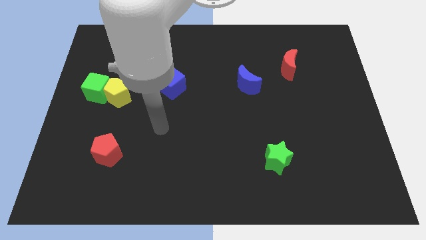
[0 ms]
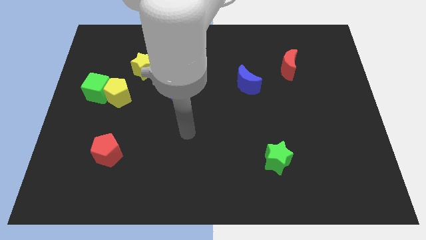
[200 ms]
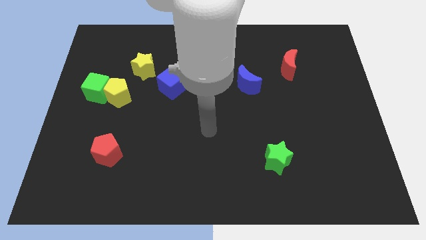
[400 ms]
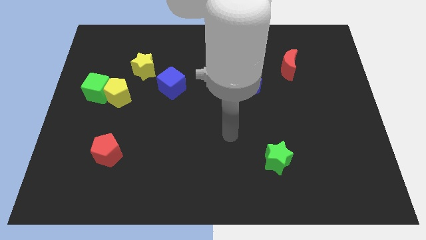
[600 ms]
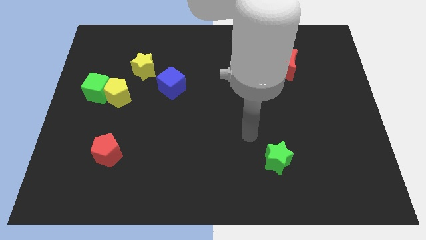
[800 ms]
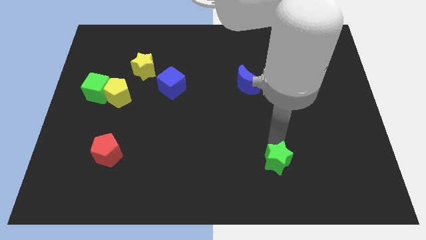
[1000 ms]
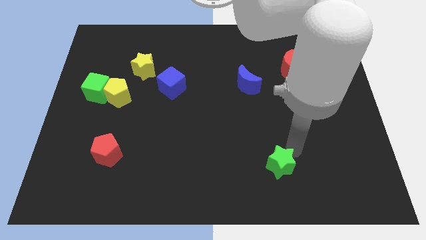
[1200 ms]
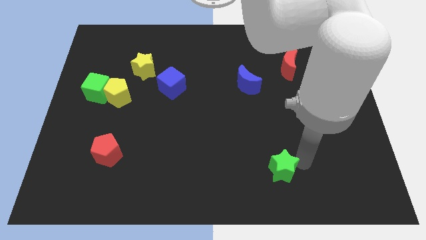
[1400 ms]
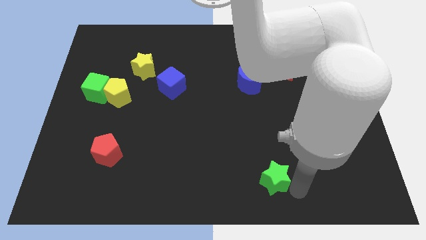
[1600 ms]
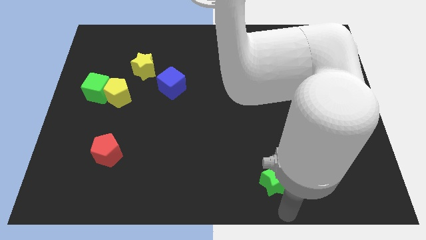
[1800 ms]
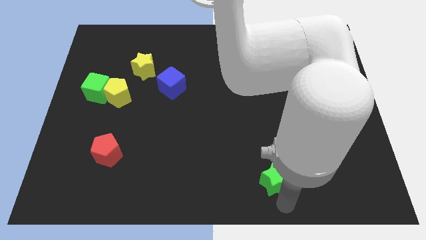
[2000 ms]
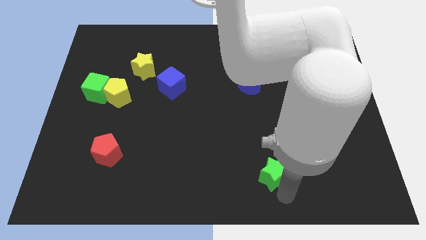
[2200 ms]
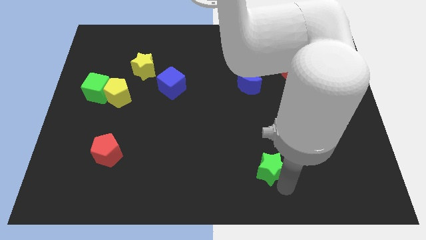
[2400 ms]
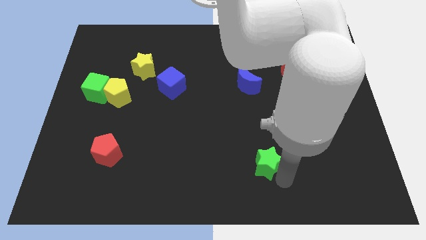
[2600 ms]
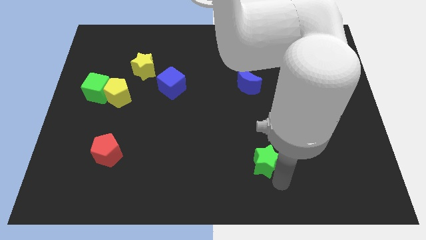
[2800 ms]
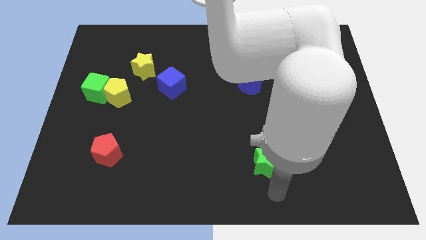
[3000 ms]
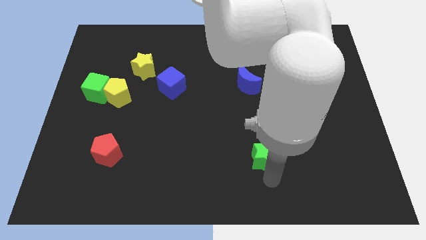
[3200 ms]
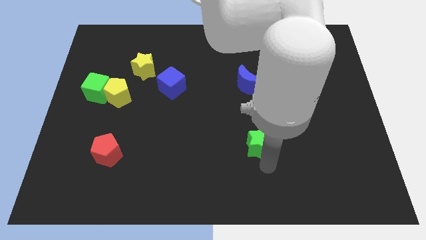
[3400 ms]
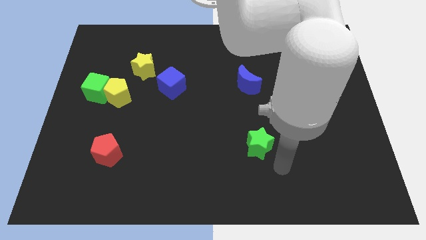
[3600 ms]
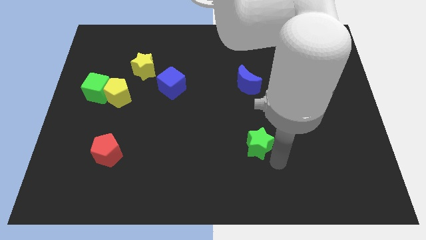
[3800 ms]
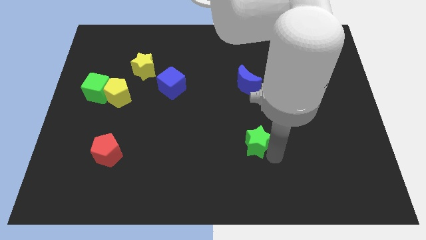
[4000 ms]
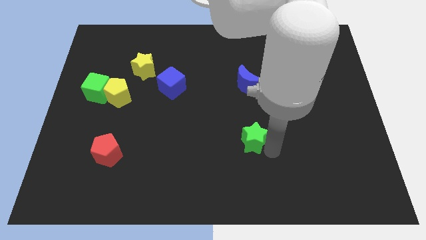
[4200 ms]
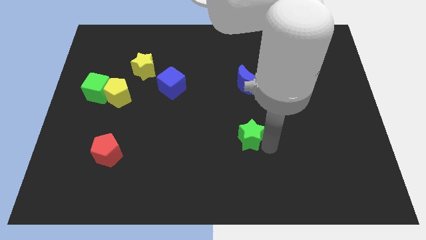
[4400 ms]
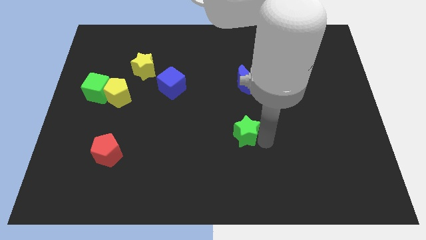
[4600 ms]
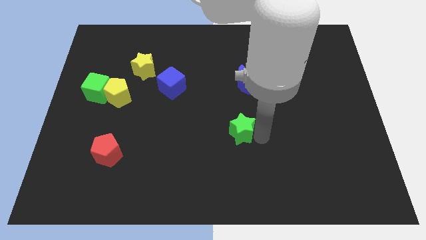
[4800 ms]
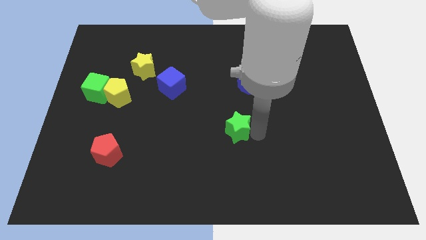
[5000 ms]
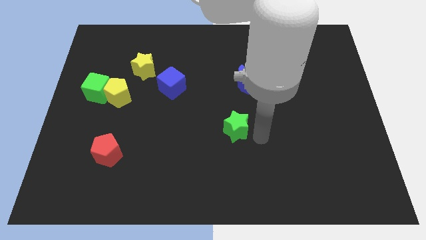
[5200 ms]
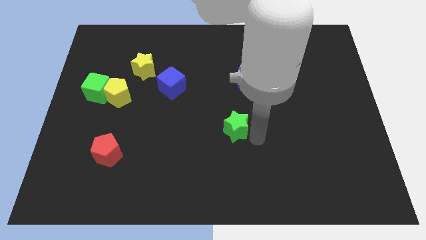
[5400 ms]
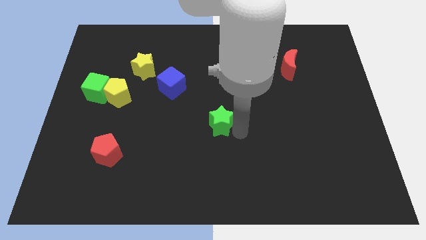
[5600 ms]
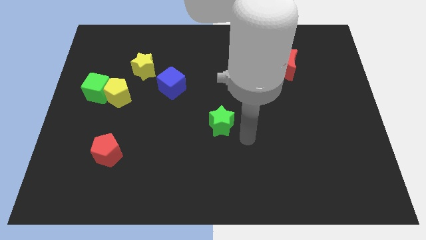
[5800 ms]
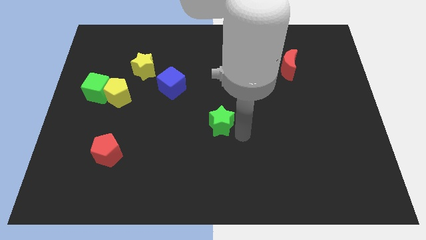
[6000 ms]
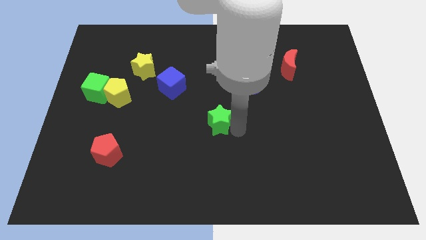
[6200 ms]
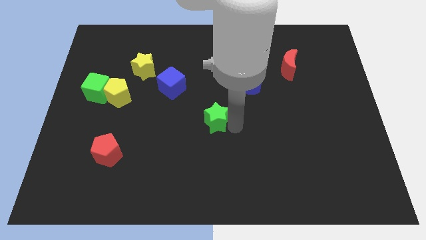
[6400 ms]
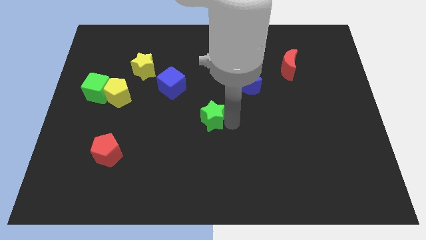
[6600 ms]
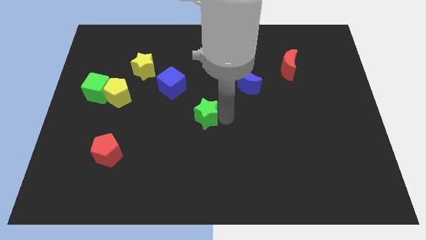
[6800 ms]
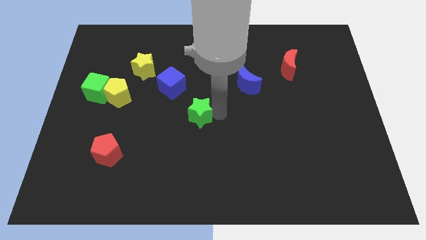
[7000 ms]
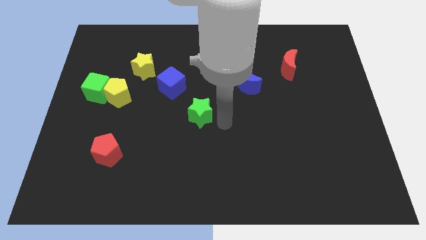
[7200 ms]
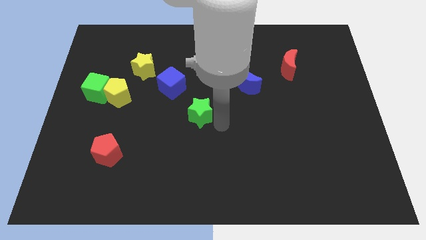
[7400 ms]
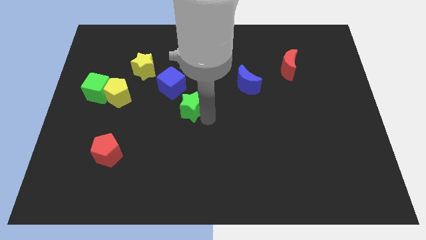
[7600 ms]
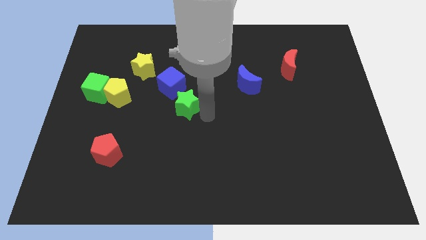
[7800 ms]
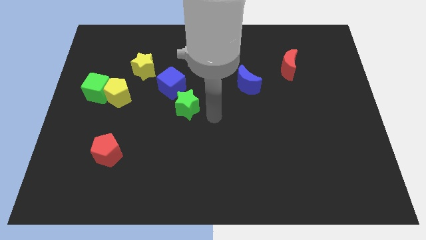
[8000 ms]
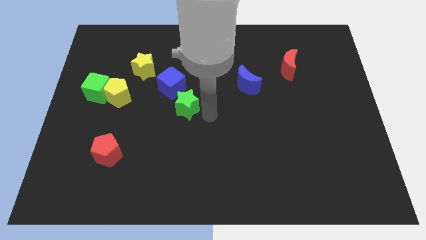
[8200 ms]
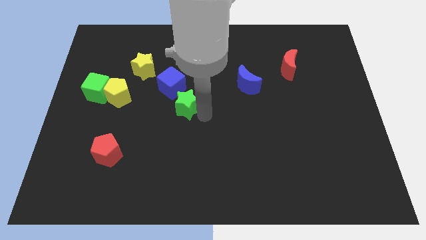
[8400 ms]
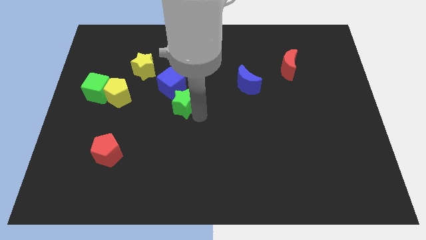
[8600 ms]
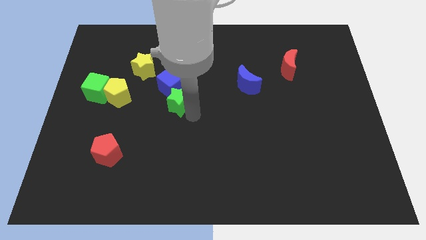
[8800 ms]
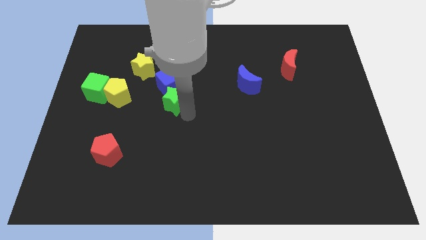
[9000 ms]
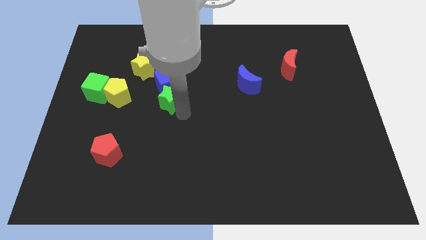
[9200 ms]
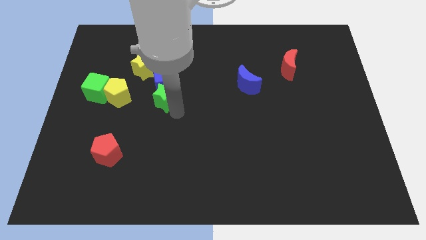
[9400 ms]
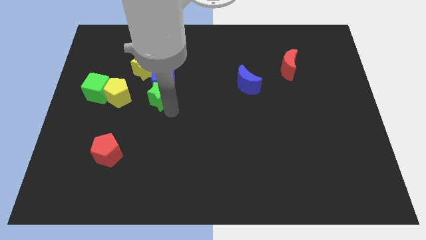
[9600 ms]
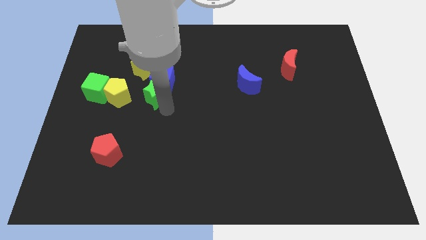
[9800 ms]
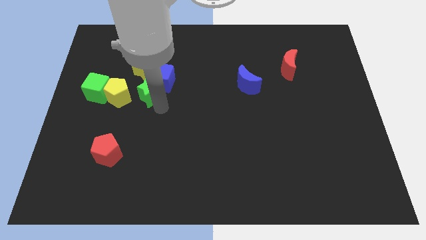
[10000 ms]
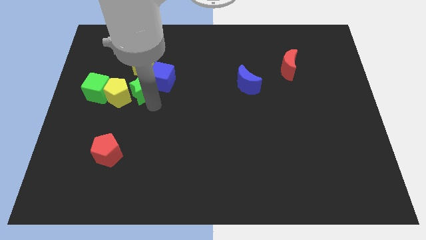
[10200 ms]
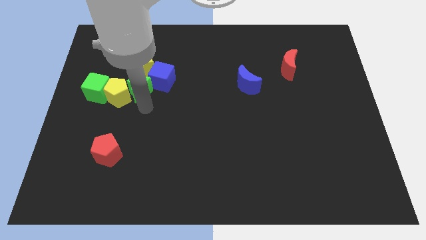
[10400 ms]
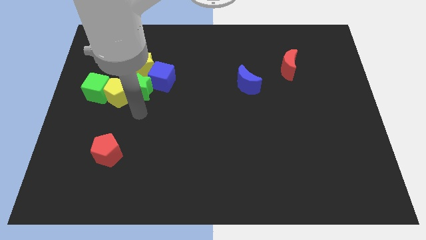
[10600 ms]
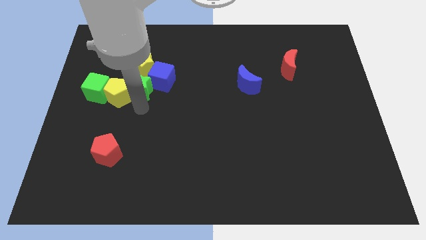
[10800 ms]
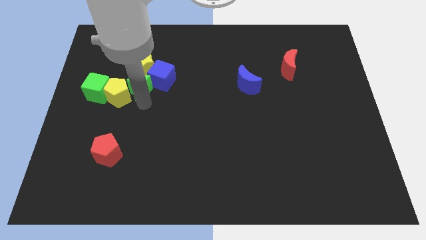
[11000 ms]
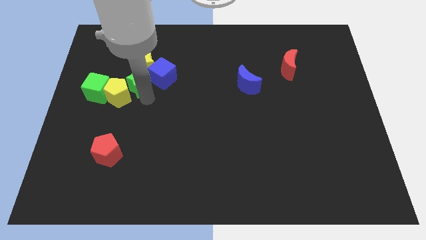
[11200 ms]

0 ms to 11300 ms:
move the green star to the yellow star

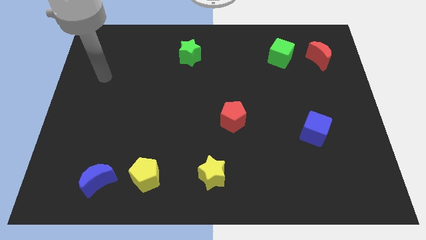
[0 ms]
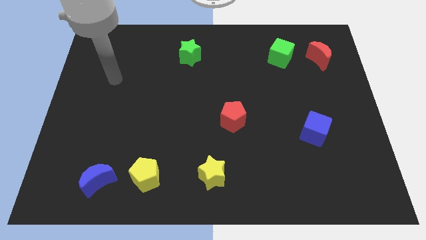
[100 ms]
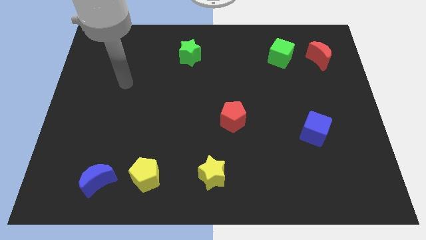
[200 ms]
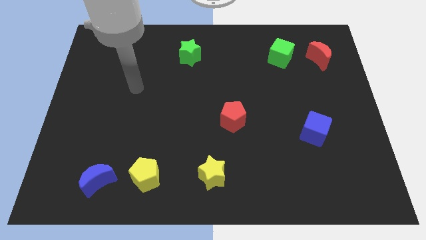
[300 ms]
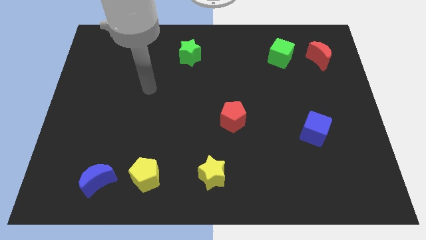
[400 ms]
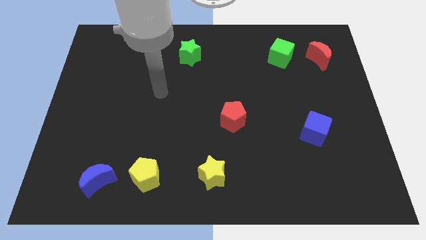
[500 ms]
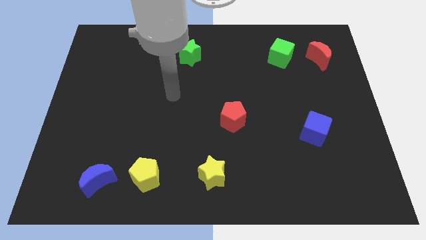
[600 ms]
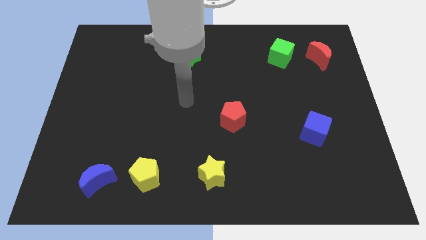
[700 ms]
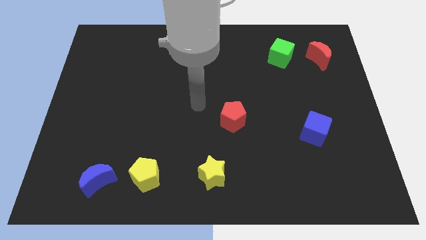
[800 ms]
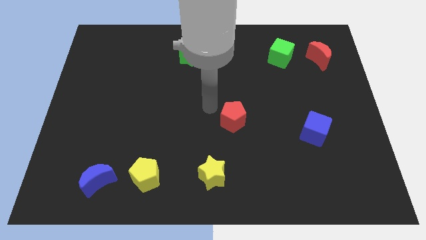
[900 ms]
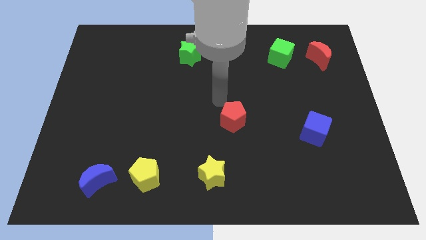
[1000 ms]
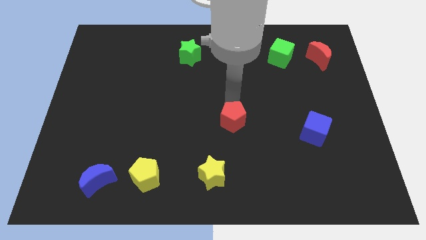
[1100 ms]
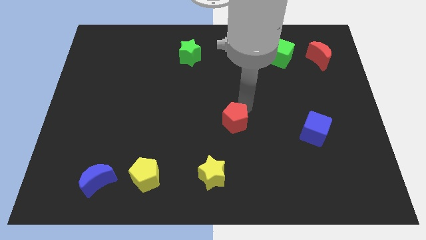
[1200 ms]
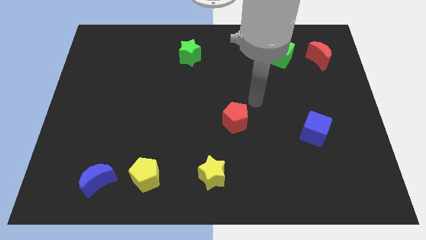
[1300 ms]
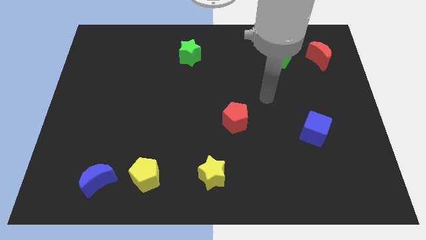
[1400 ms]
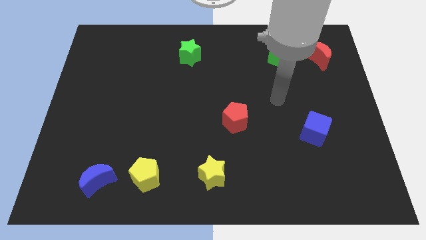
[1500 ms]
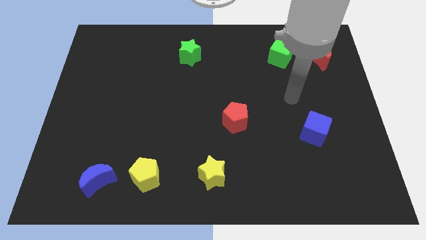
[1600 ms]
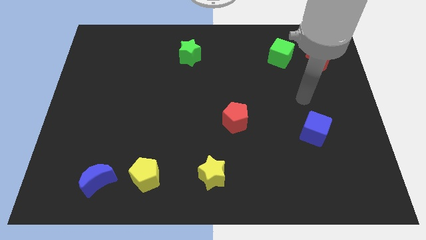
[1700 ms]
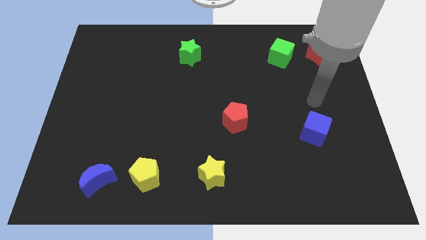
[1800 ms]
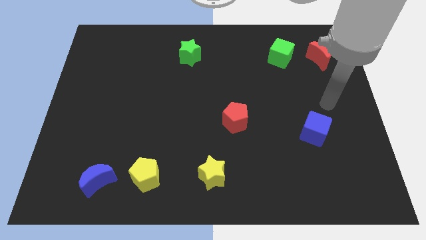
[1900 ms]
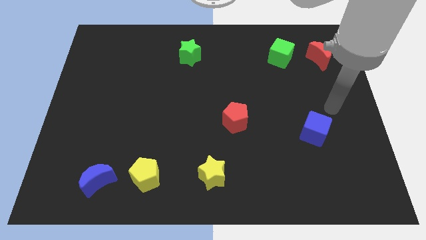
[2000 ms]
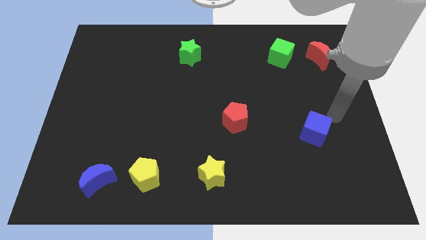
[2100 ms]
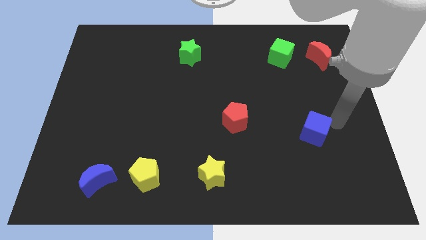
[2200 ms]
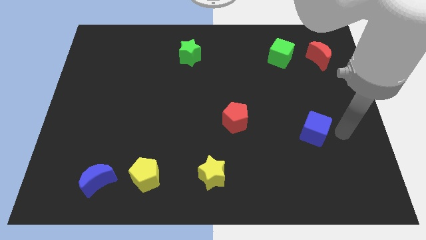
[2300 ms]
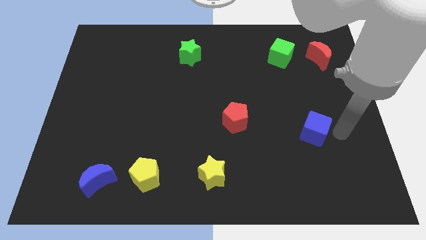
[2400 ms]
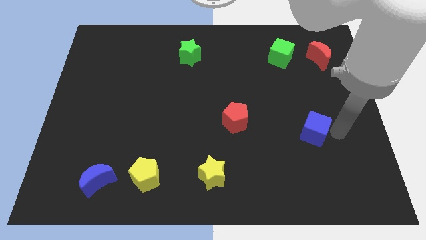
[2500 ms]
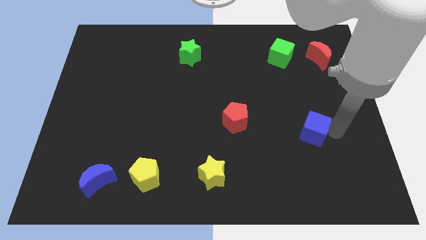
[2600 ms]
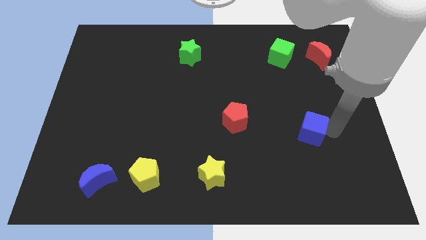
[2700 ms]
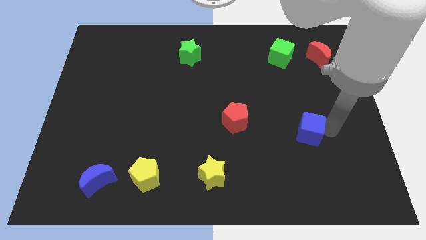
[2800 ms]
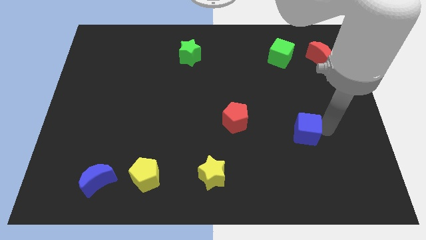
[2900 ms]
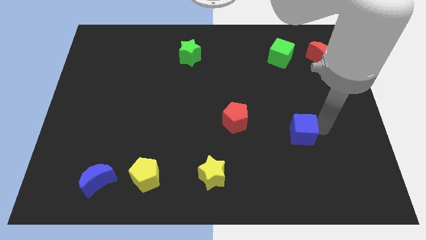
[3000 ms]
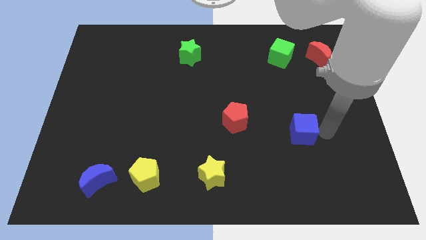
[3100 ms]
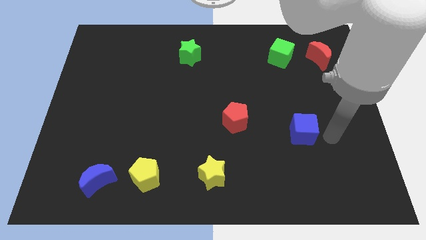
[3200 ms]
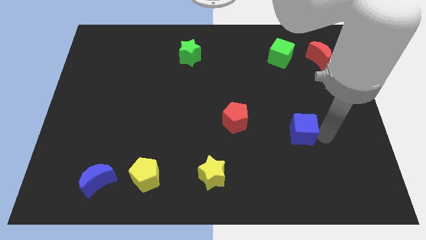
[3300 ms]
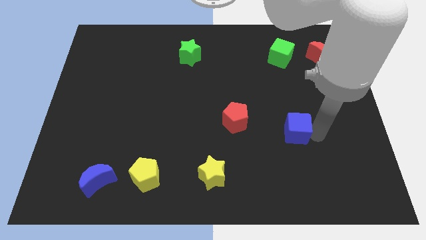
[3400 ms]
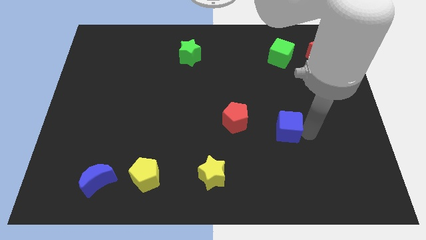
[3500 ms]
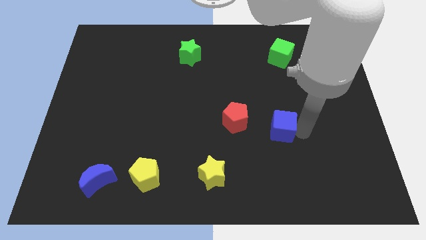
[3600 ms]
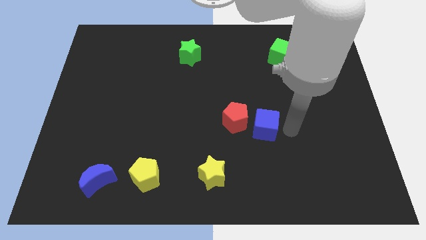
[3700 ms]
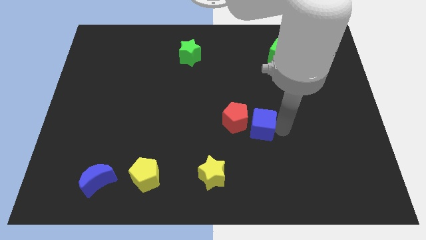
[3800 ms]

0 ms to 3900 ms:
push the blue cube towards the red pentagon
